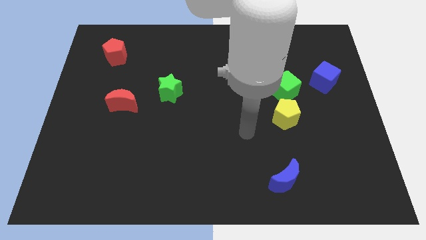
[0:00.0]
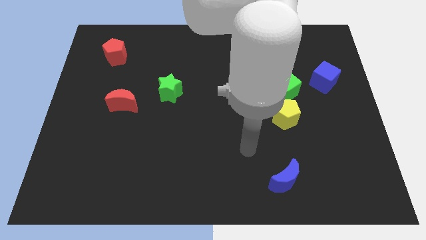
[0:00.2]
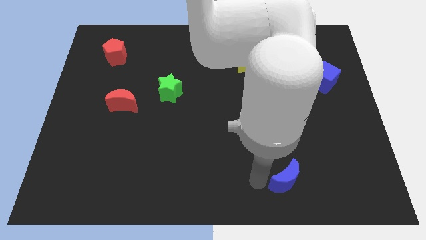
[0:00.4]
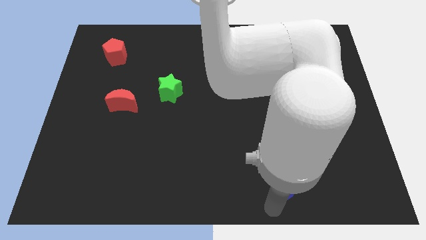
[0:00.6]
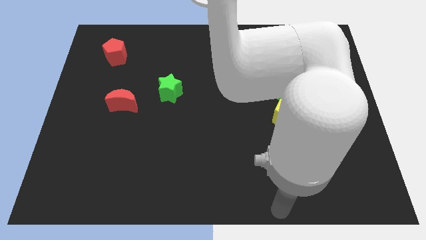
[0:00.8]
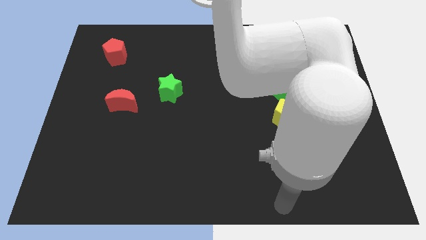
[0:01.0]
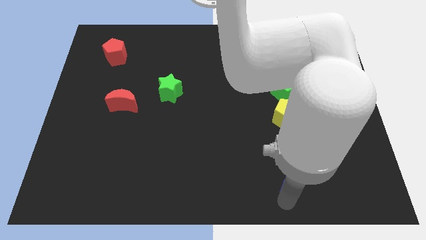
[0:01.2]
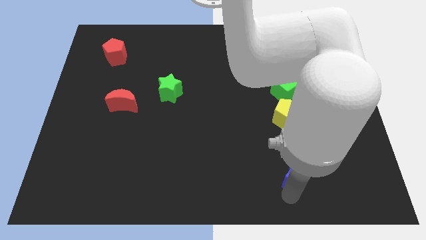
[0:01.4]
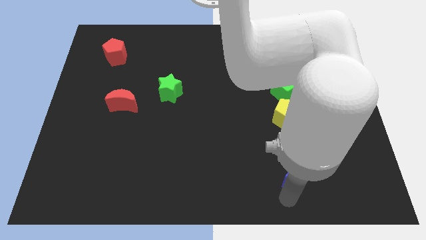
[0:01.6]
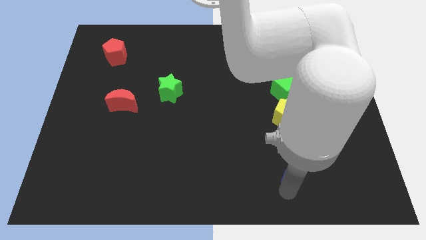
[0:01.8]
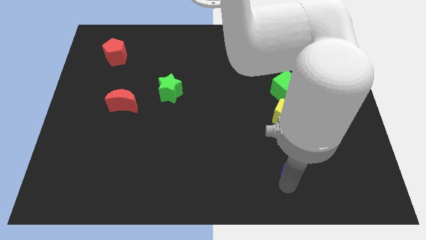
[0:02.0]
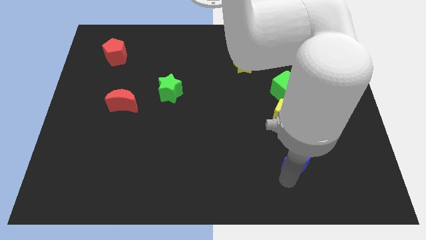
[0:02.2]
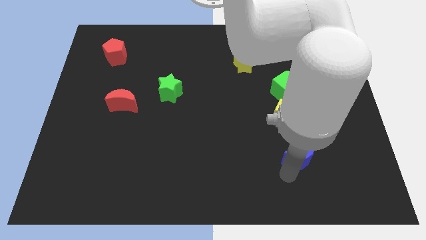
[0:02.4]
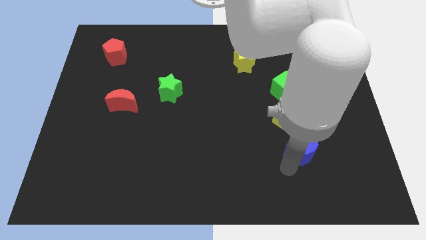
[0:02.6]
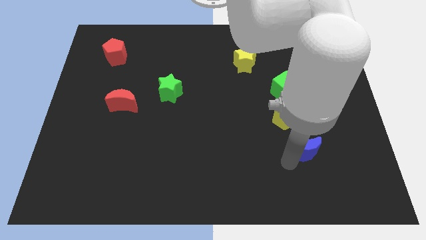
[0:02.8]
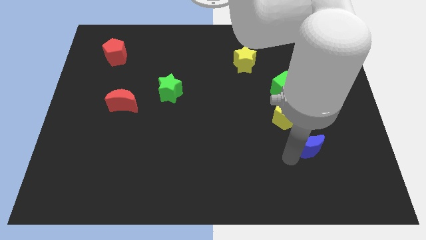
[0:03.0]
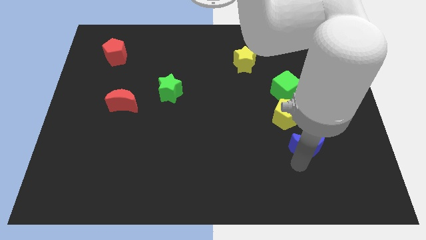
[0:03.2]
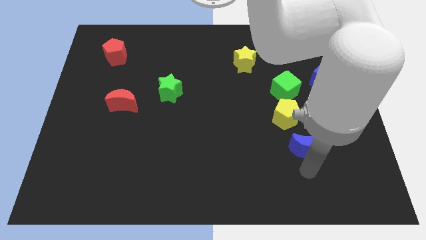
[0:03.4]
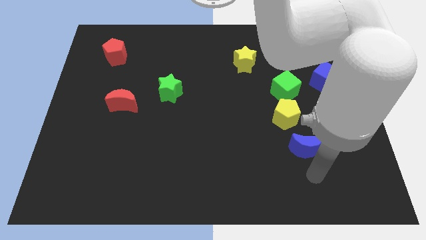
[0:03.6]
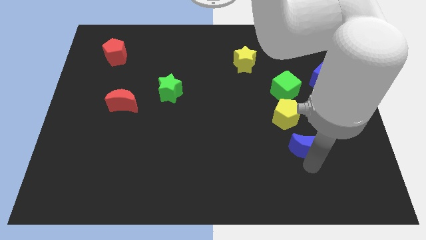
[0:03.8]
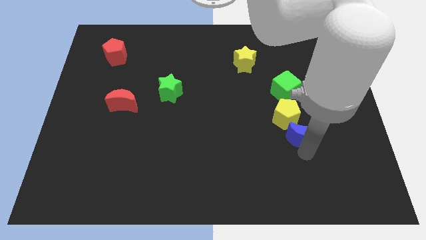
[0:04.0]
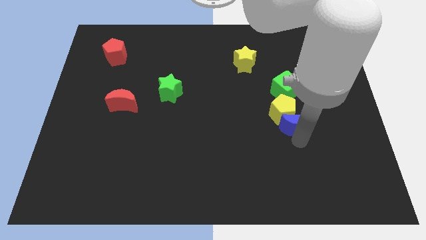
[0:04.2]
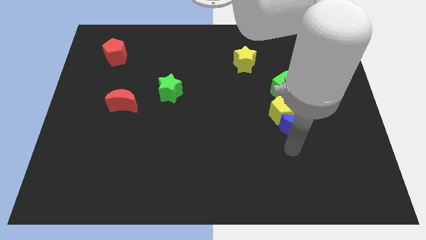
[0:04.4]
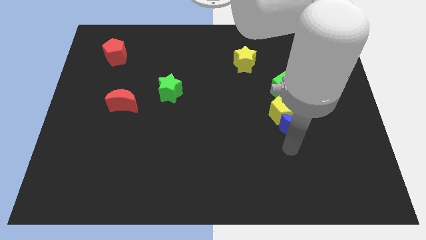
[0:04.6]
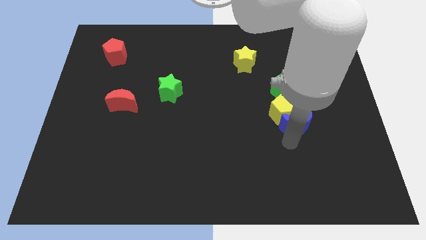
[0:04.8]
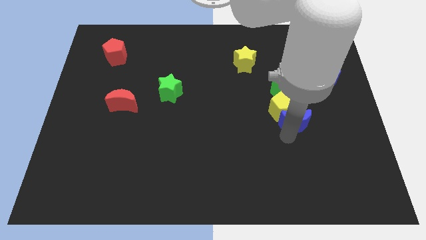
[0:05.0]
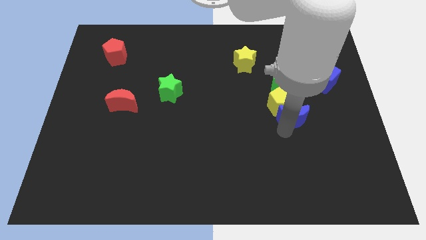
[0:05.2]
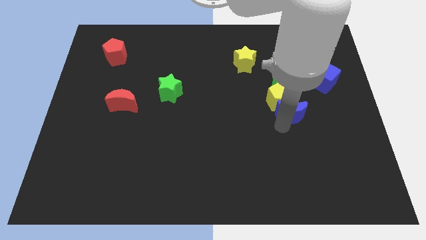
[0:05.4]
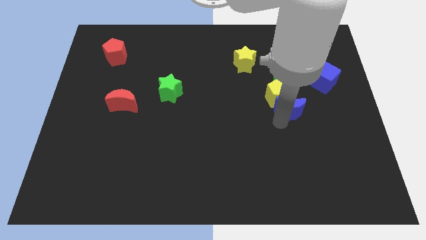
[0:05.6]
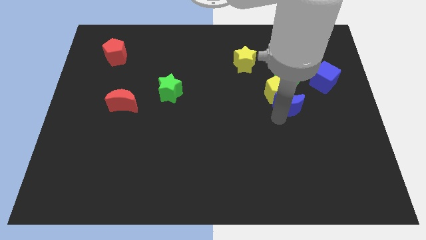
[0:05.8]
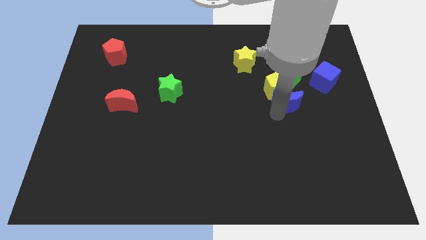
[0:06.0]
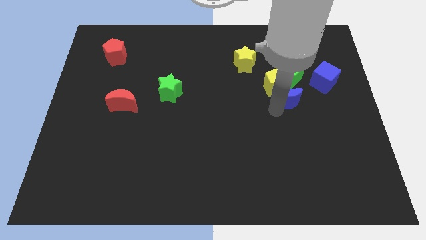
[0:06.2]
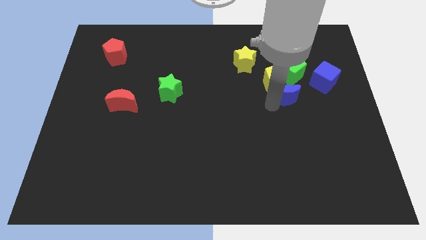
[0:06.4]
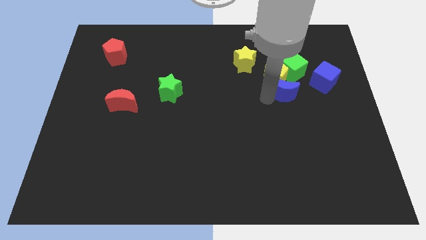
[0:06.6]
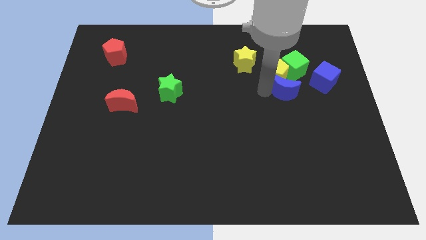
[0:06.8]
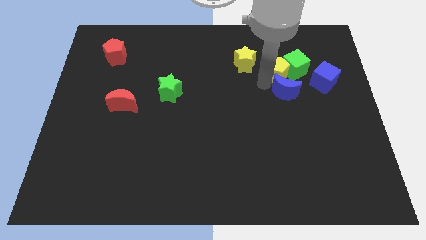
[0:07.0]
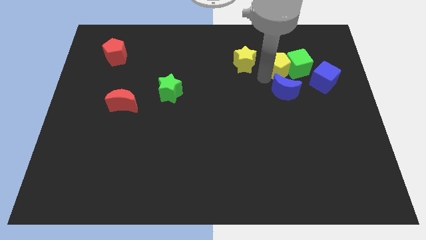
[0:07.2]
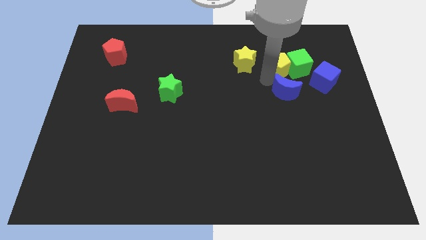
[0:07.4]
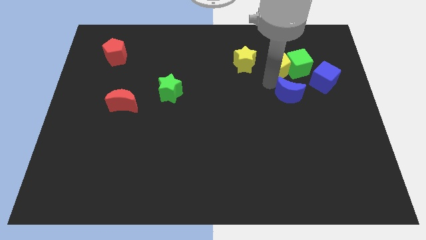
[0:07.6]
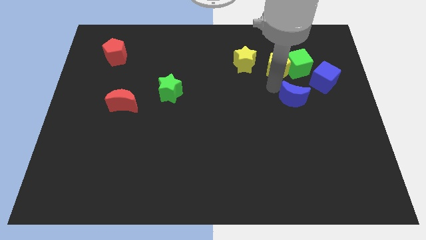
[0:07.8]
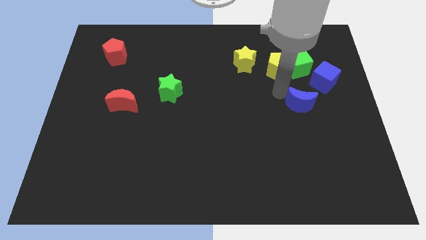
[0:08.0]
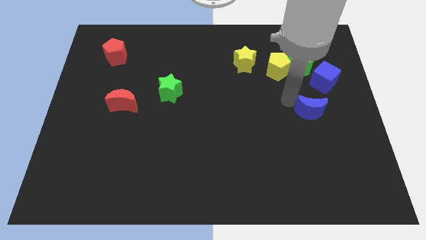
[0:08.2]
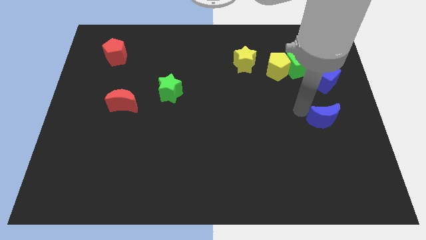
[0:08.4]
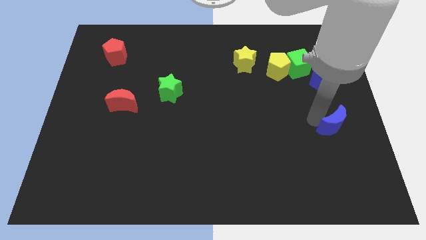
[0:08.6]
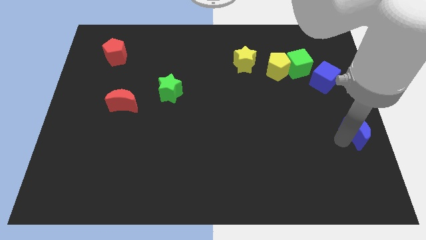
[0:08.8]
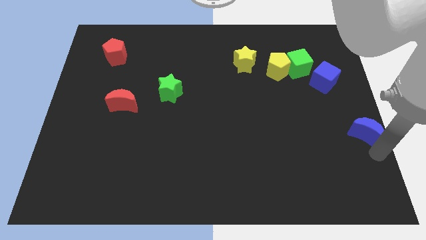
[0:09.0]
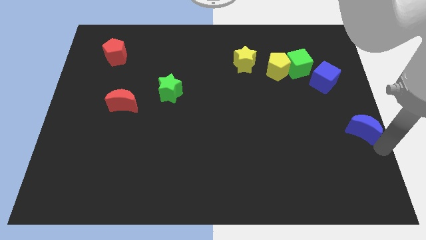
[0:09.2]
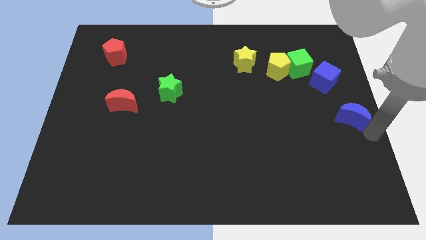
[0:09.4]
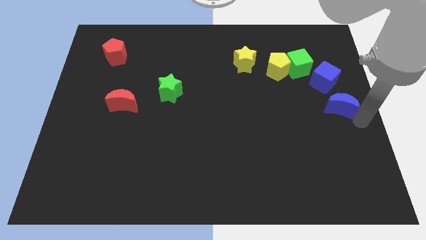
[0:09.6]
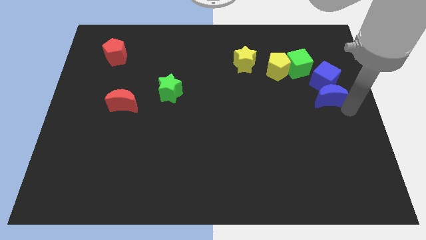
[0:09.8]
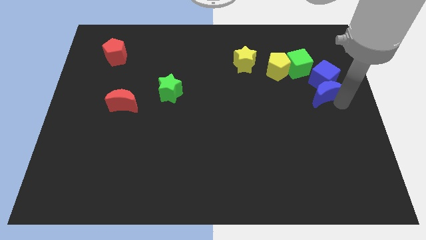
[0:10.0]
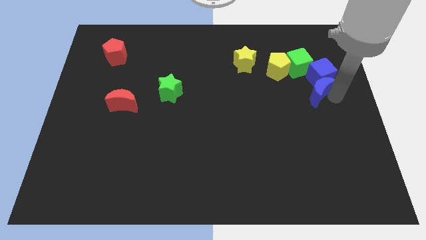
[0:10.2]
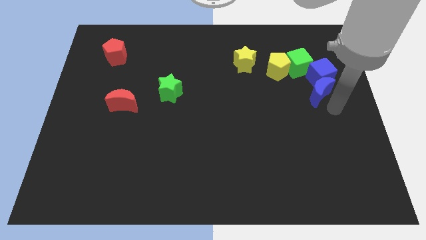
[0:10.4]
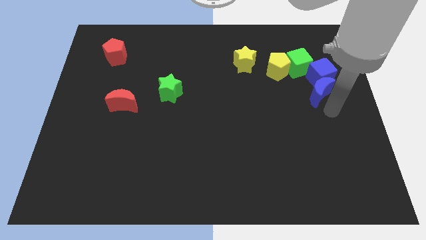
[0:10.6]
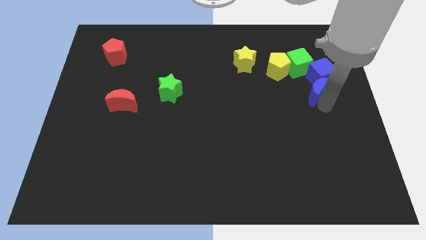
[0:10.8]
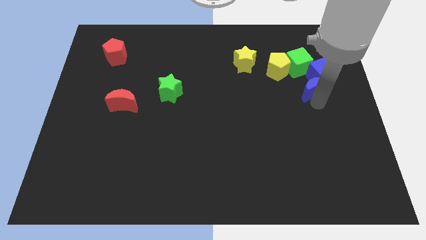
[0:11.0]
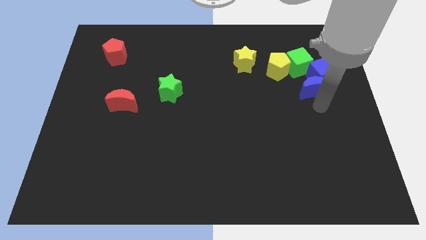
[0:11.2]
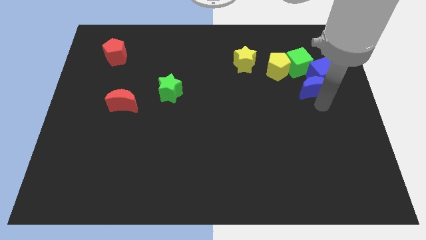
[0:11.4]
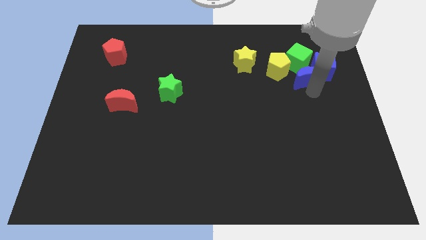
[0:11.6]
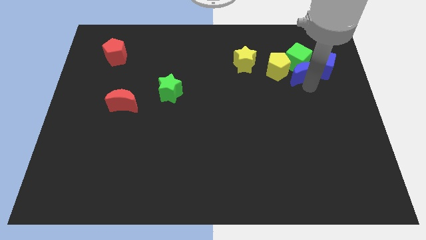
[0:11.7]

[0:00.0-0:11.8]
put the blue moon next to the green cube
